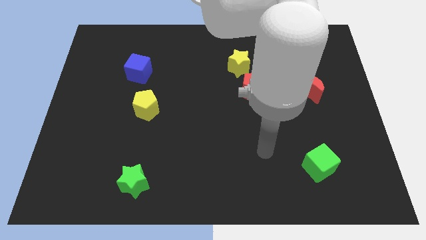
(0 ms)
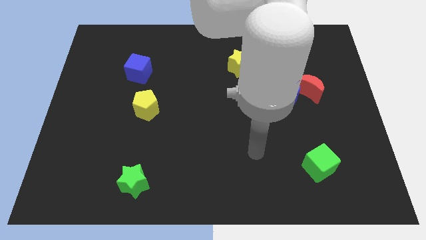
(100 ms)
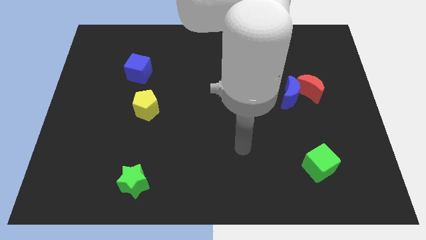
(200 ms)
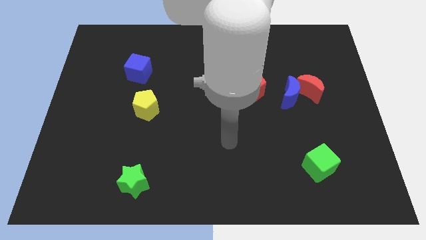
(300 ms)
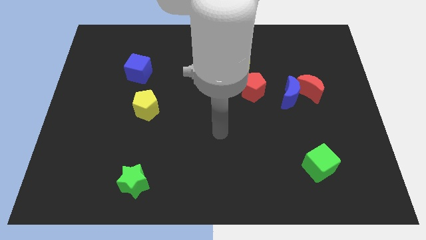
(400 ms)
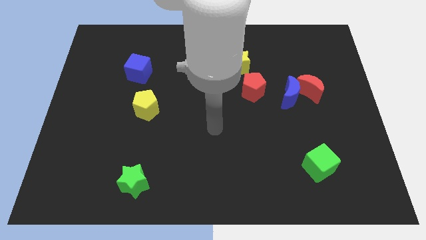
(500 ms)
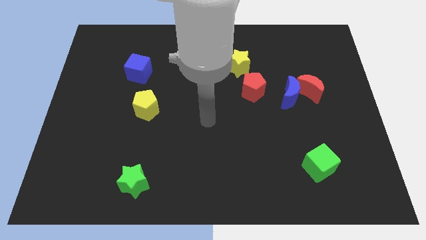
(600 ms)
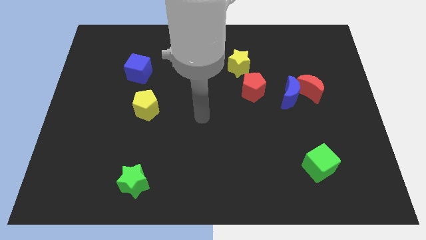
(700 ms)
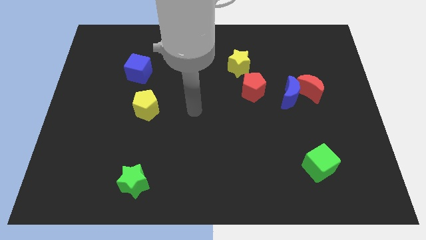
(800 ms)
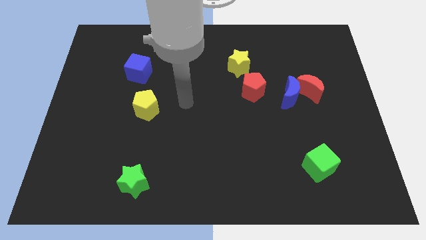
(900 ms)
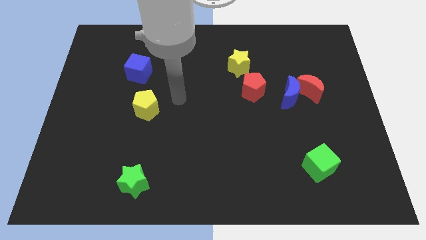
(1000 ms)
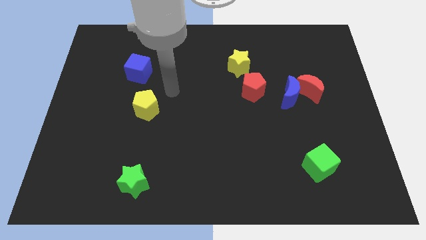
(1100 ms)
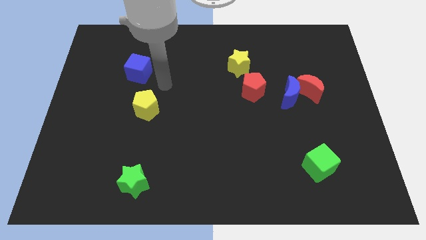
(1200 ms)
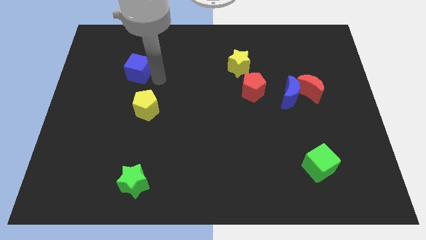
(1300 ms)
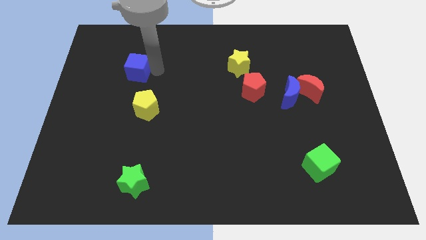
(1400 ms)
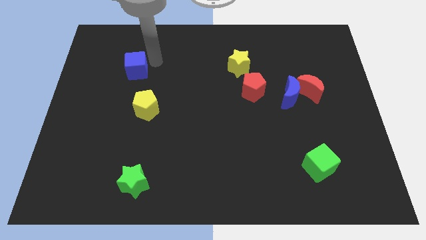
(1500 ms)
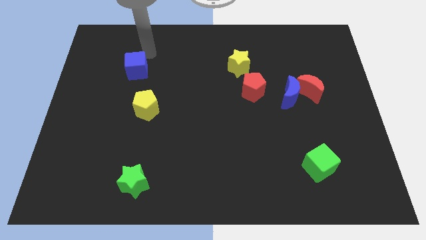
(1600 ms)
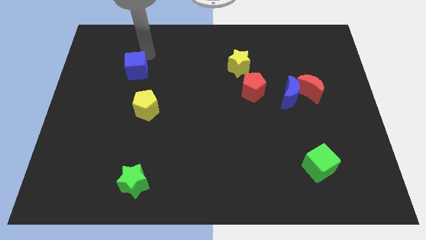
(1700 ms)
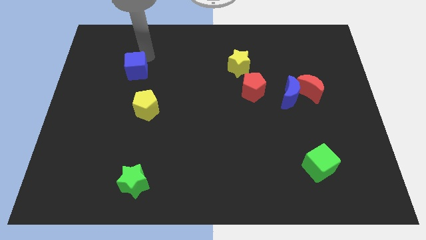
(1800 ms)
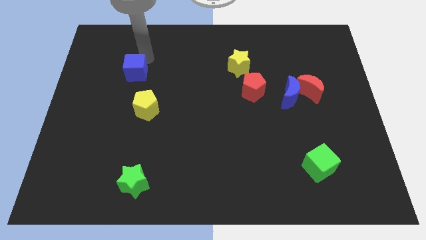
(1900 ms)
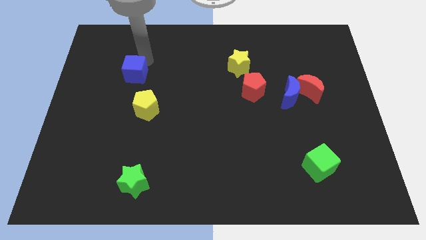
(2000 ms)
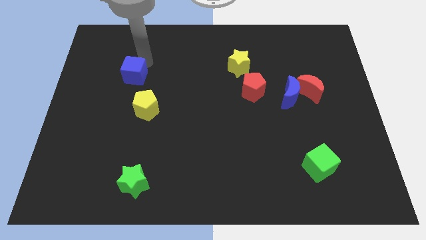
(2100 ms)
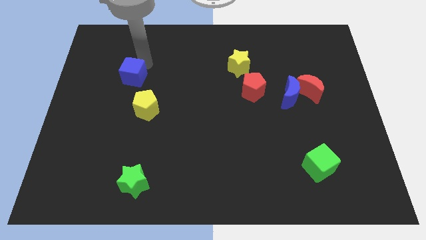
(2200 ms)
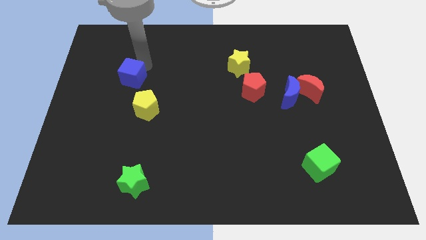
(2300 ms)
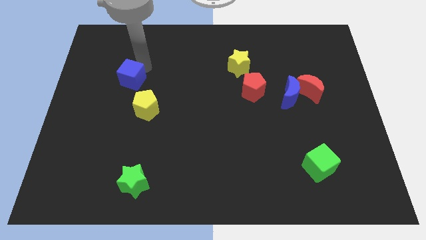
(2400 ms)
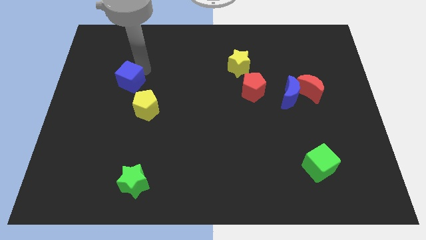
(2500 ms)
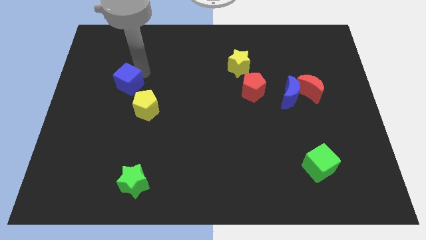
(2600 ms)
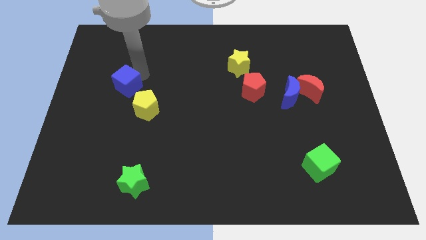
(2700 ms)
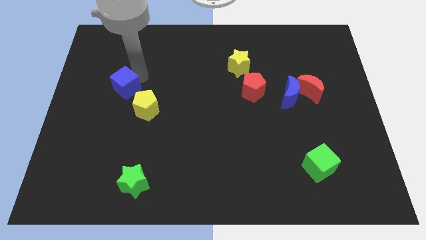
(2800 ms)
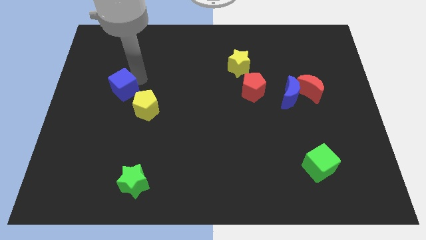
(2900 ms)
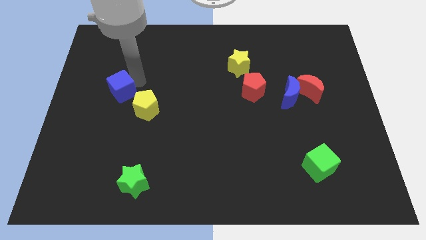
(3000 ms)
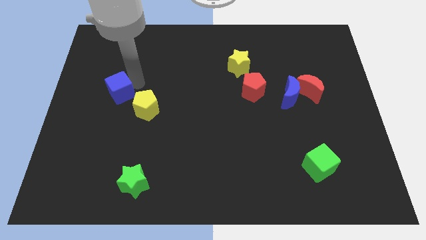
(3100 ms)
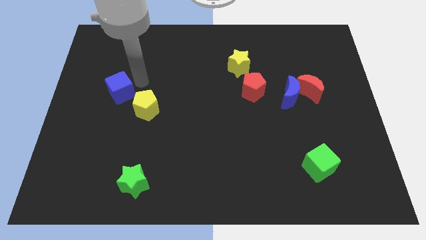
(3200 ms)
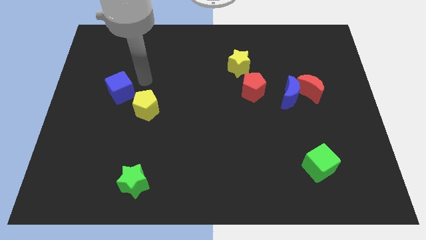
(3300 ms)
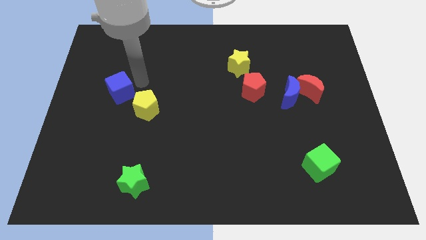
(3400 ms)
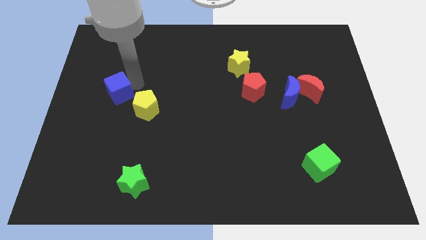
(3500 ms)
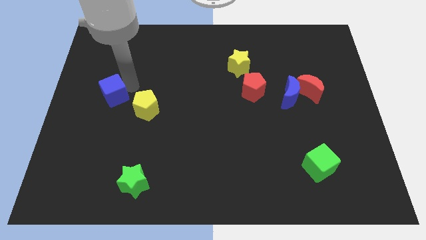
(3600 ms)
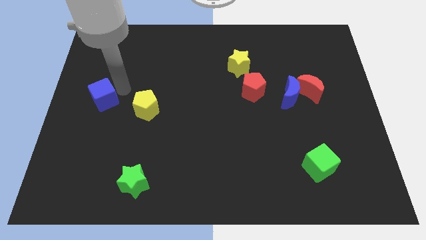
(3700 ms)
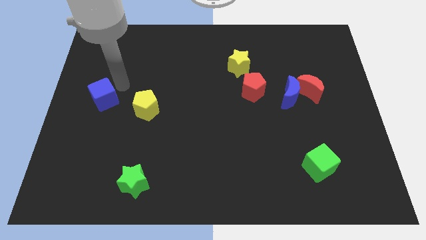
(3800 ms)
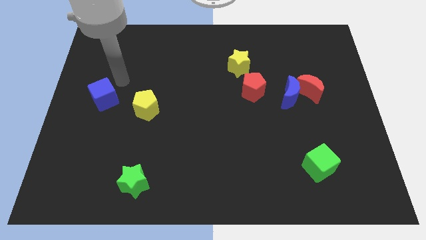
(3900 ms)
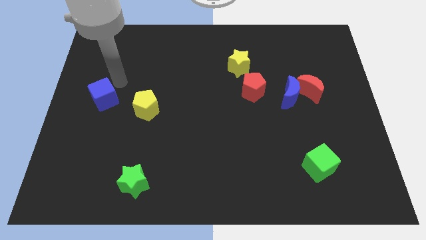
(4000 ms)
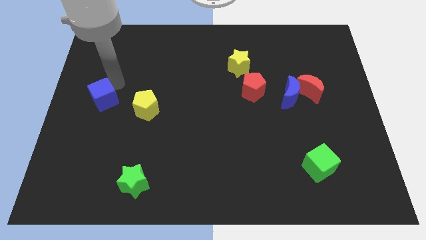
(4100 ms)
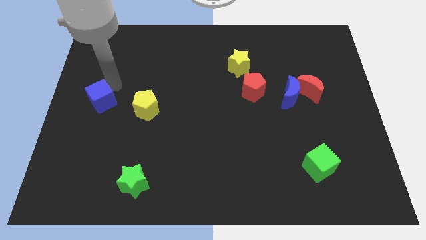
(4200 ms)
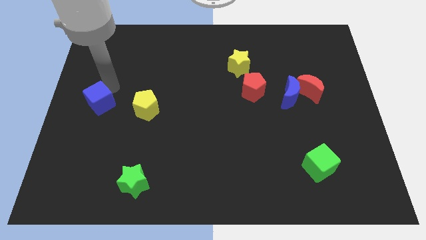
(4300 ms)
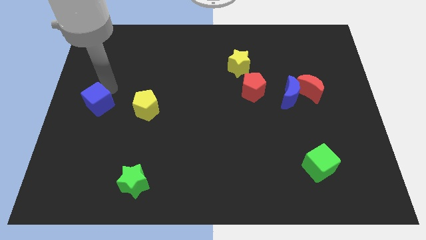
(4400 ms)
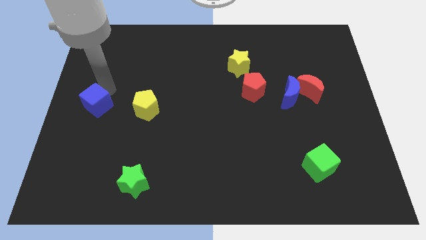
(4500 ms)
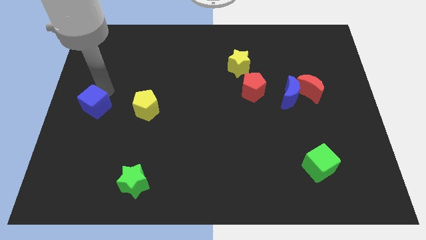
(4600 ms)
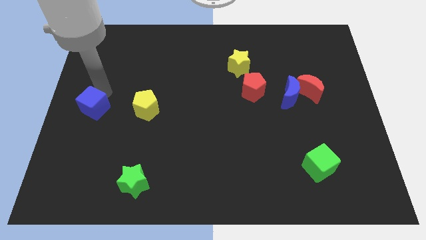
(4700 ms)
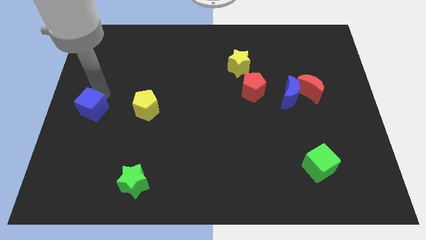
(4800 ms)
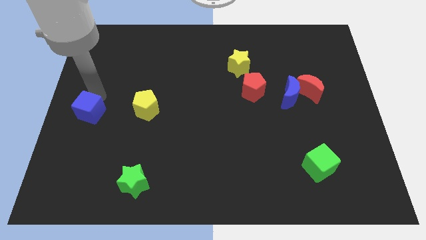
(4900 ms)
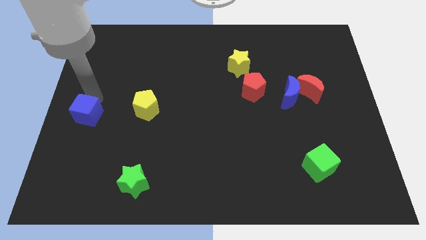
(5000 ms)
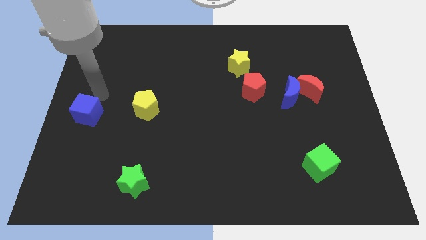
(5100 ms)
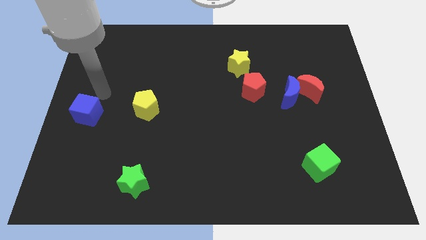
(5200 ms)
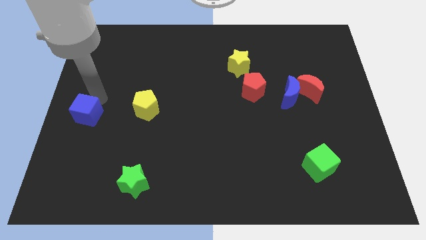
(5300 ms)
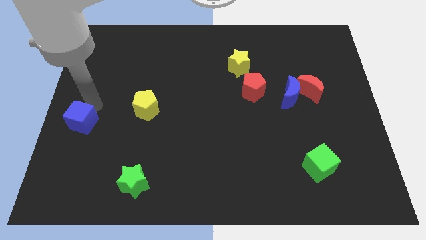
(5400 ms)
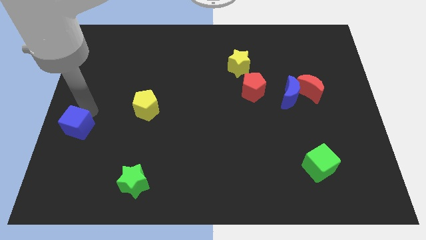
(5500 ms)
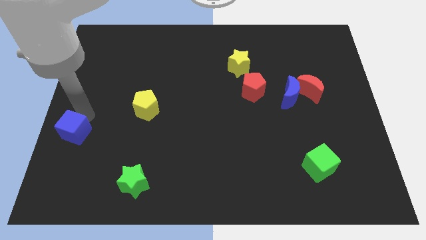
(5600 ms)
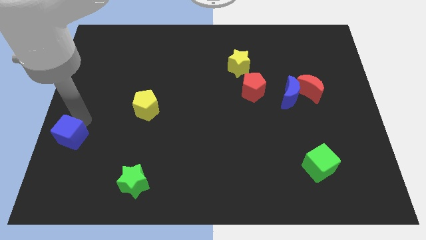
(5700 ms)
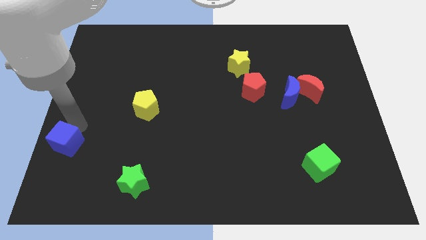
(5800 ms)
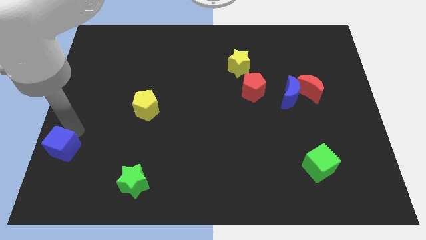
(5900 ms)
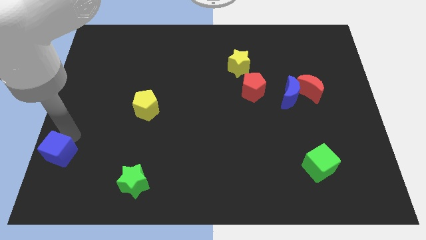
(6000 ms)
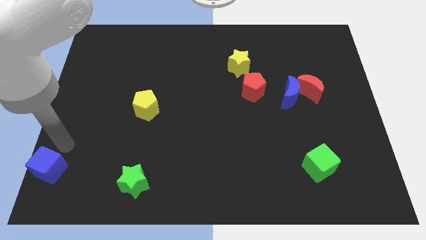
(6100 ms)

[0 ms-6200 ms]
put the blue cube to the lower left corner
